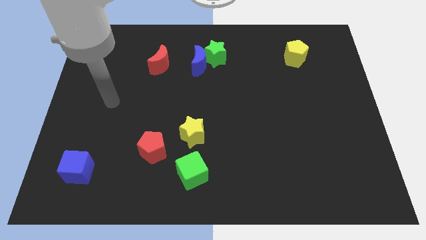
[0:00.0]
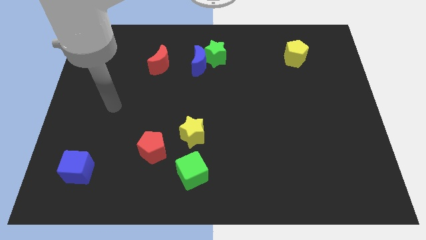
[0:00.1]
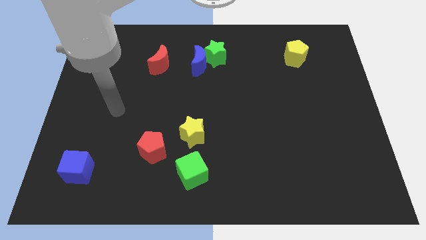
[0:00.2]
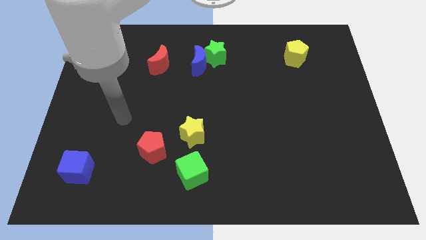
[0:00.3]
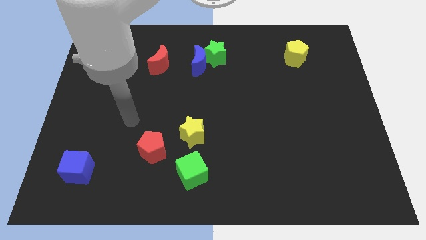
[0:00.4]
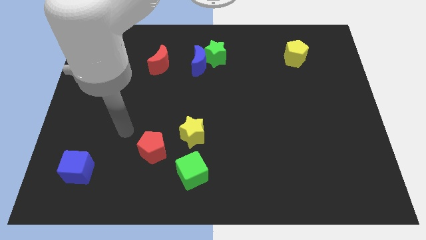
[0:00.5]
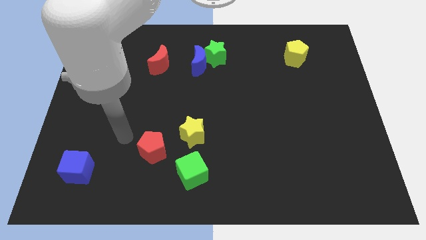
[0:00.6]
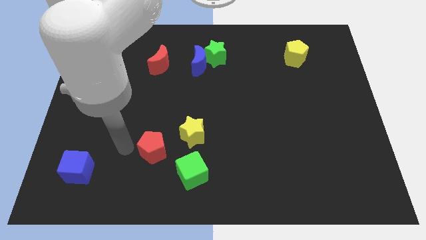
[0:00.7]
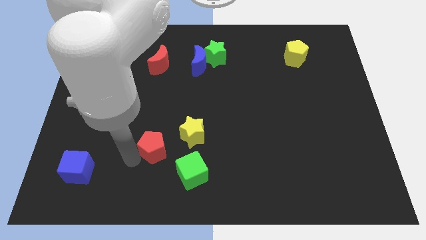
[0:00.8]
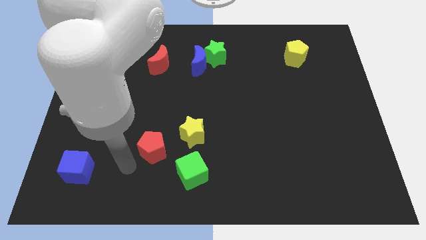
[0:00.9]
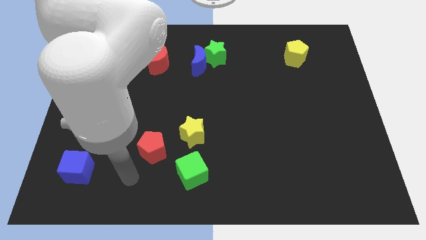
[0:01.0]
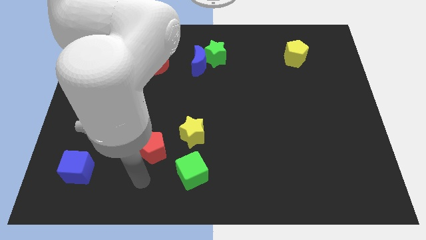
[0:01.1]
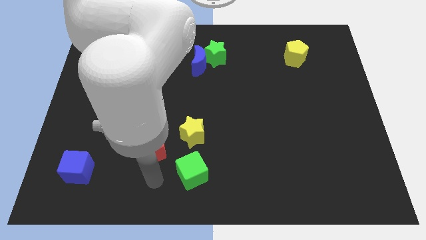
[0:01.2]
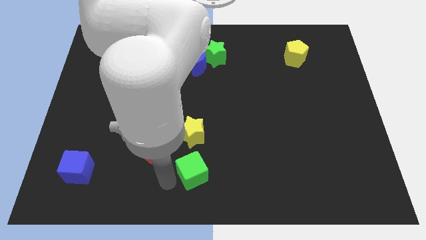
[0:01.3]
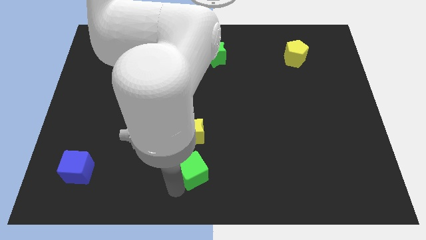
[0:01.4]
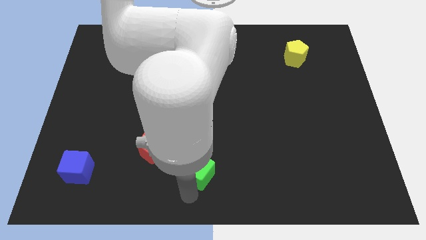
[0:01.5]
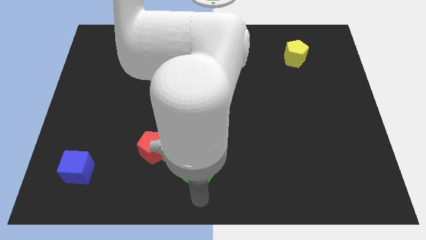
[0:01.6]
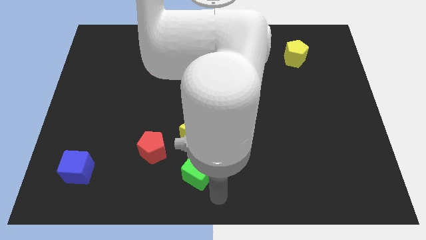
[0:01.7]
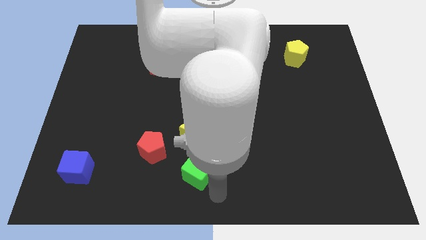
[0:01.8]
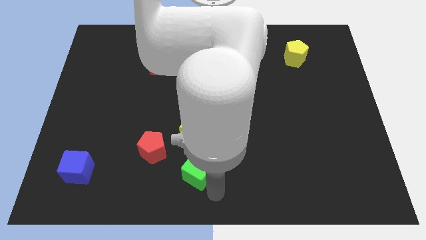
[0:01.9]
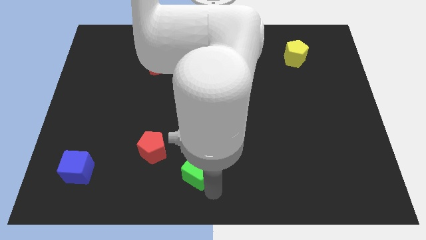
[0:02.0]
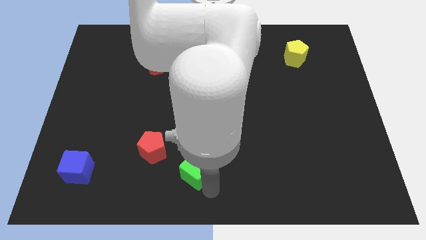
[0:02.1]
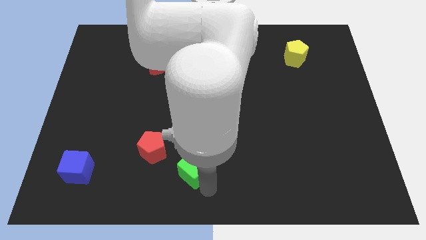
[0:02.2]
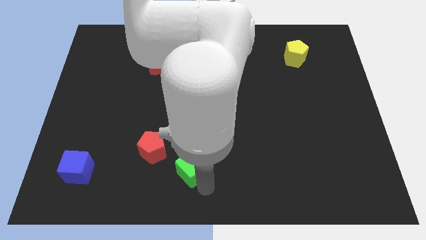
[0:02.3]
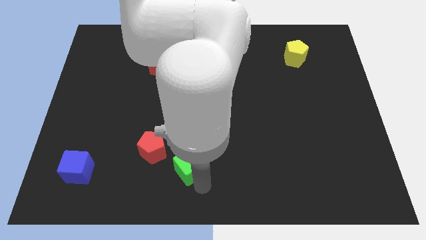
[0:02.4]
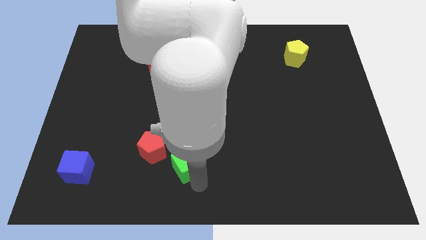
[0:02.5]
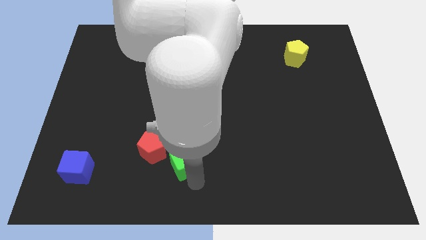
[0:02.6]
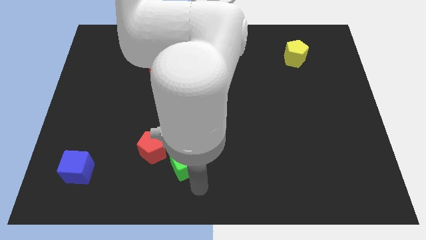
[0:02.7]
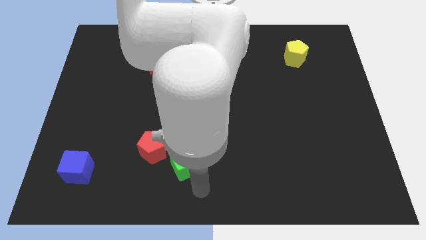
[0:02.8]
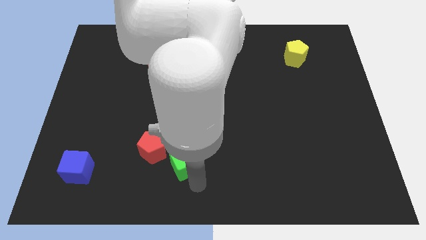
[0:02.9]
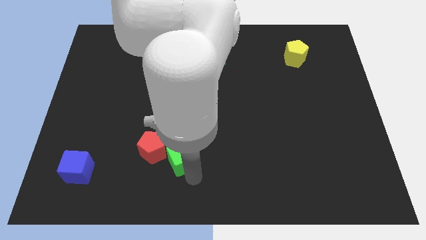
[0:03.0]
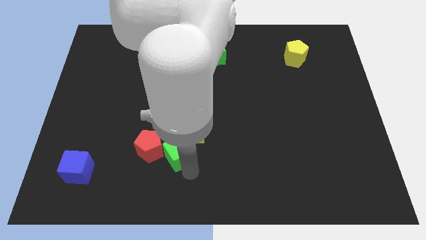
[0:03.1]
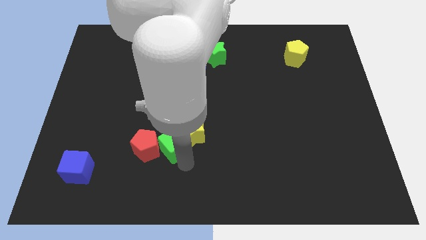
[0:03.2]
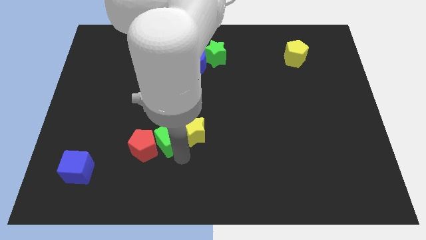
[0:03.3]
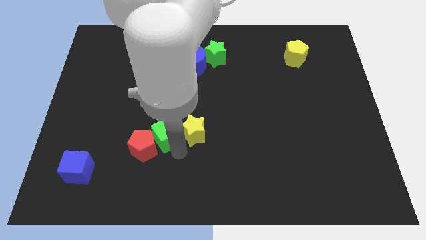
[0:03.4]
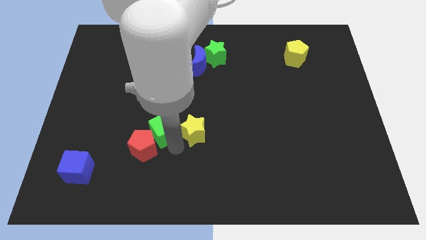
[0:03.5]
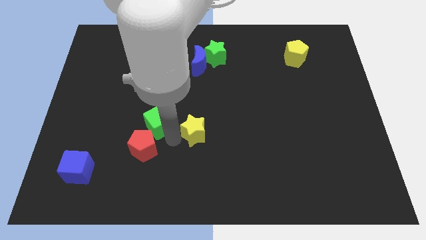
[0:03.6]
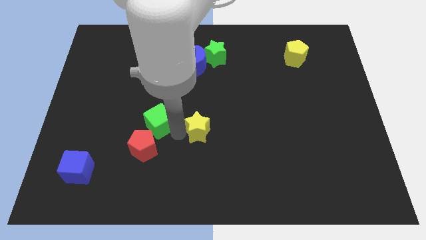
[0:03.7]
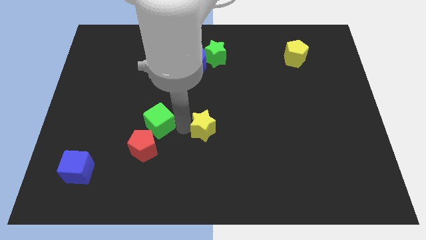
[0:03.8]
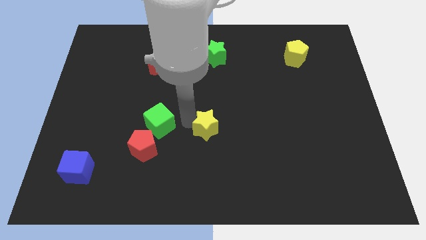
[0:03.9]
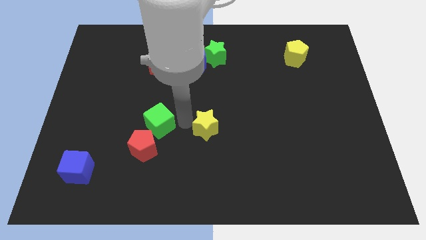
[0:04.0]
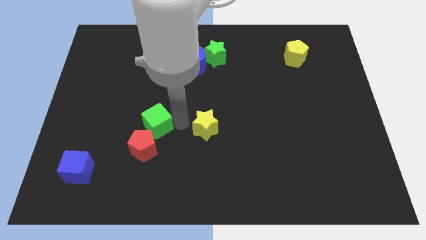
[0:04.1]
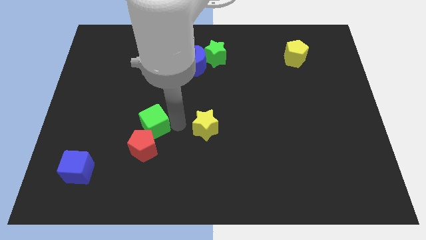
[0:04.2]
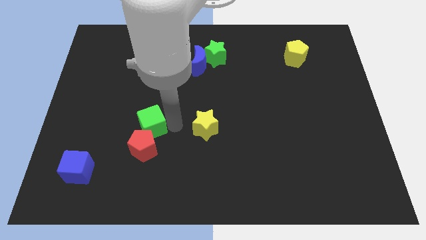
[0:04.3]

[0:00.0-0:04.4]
slide the green cube to the top left side of the red pentagon

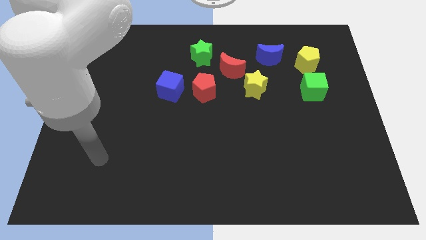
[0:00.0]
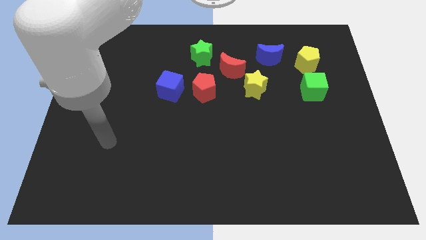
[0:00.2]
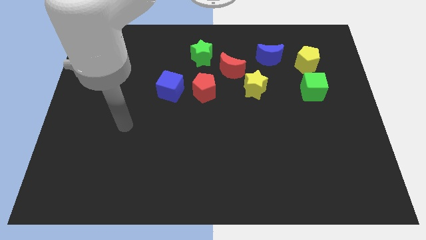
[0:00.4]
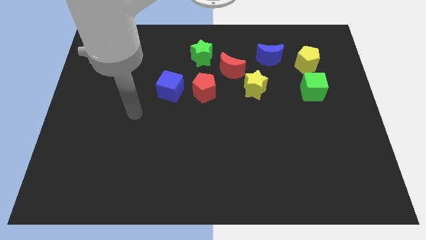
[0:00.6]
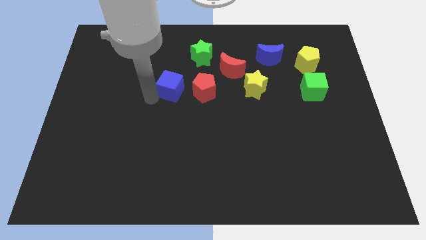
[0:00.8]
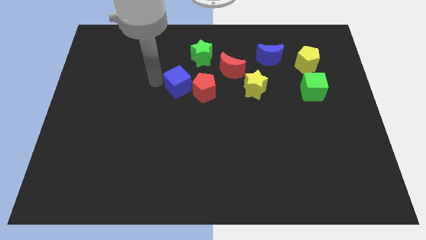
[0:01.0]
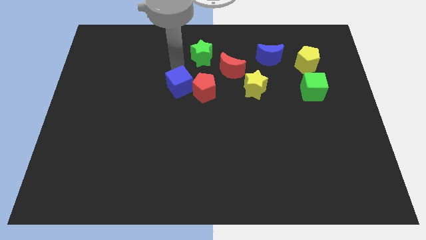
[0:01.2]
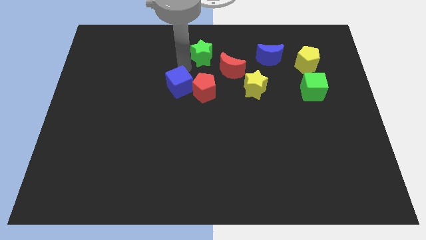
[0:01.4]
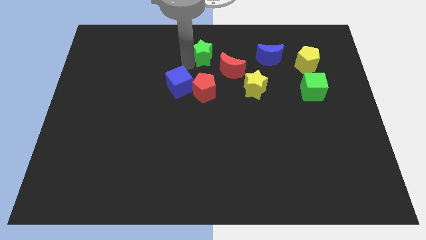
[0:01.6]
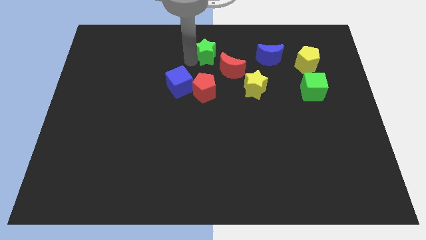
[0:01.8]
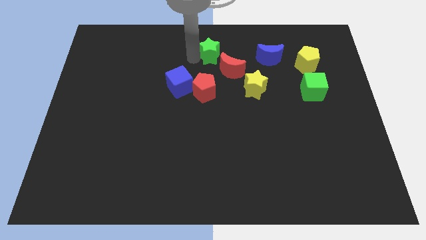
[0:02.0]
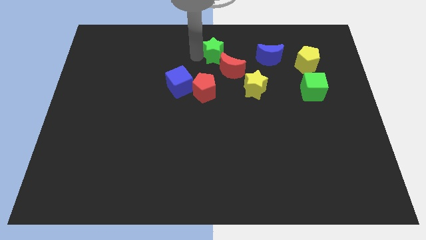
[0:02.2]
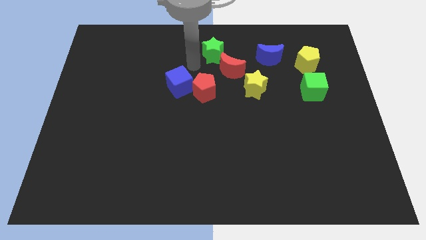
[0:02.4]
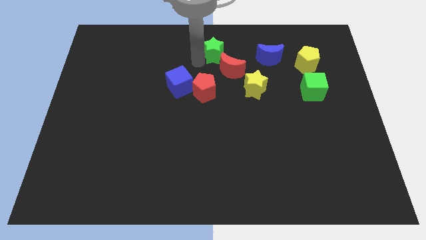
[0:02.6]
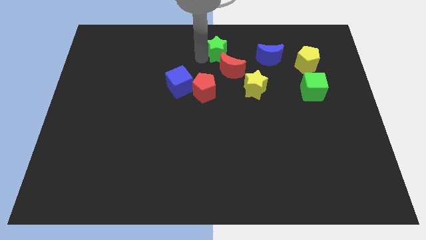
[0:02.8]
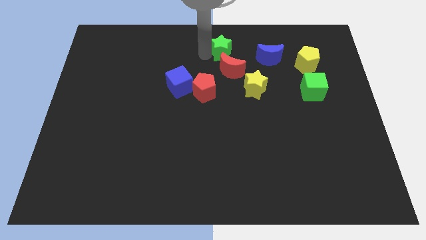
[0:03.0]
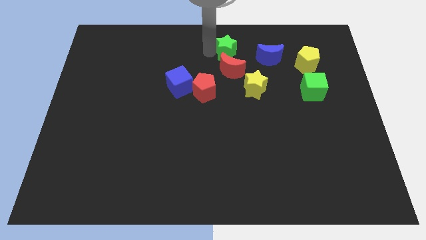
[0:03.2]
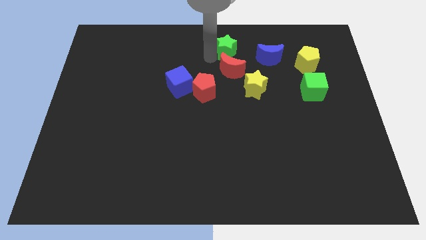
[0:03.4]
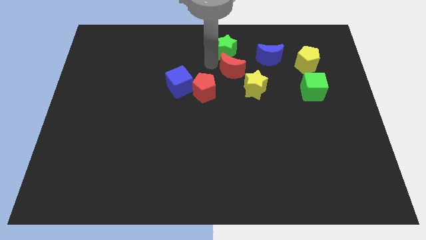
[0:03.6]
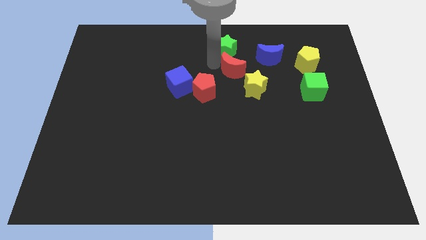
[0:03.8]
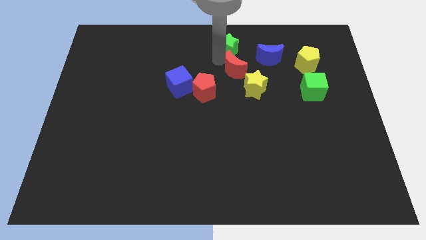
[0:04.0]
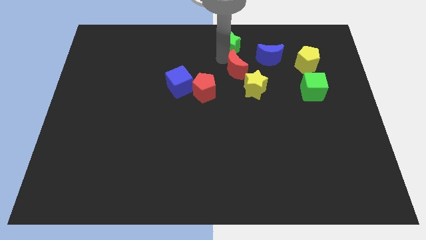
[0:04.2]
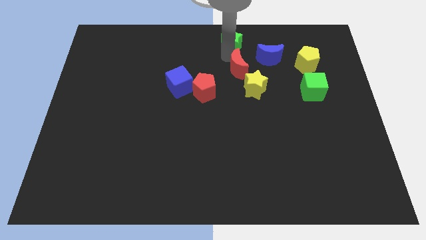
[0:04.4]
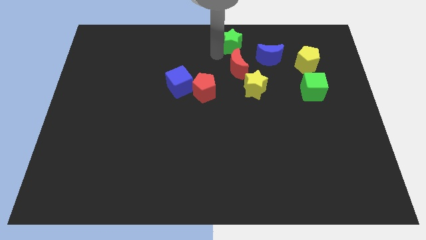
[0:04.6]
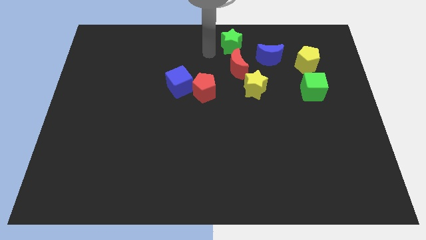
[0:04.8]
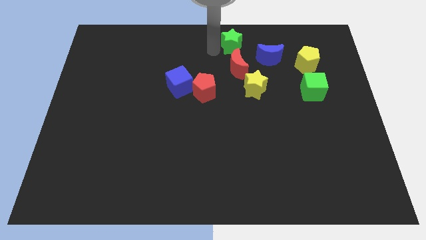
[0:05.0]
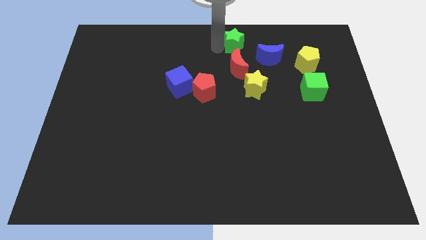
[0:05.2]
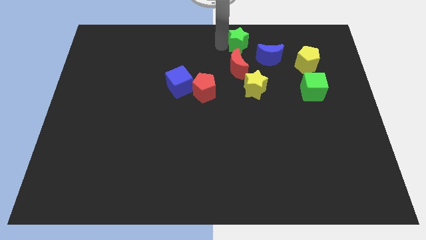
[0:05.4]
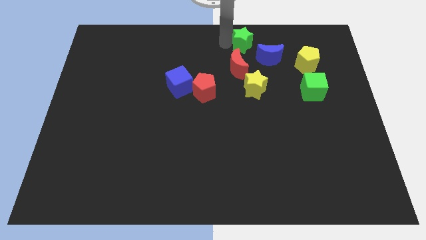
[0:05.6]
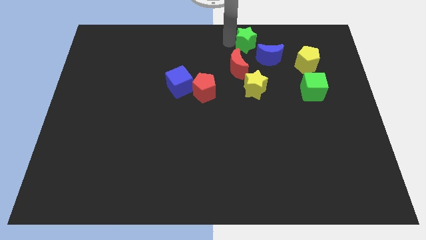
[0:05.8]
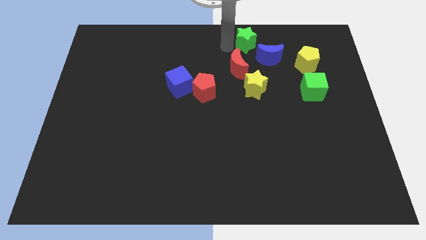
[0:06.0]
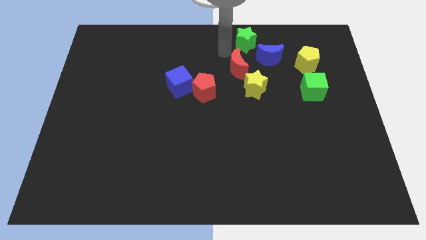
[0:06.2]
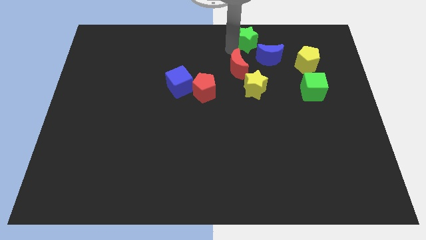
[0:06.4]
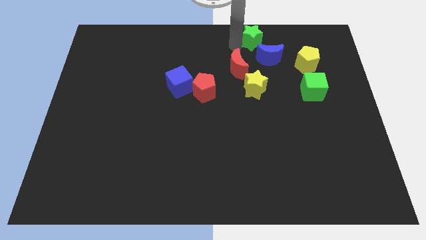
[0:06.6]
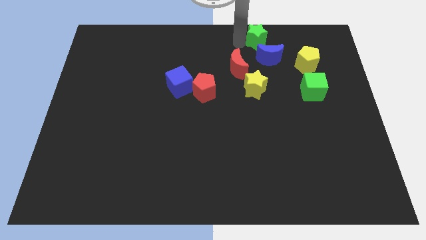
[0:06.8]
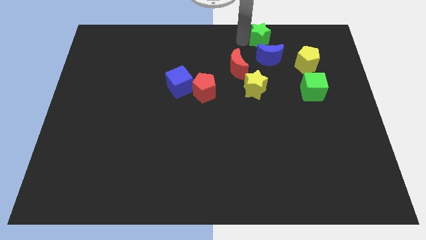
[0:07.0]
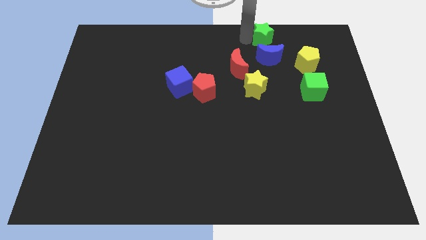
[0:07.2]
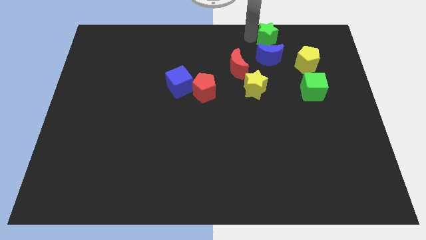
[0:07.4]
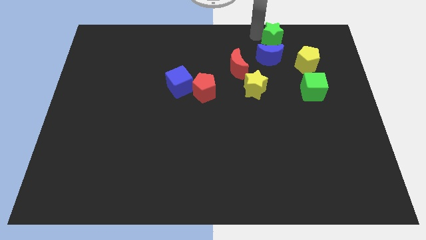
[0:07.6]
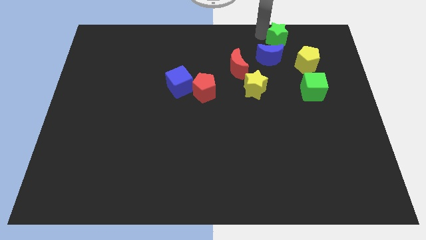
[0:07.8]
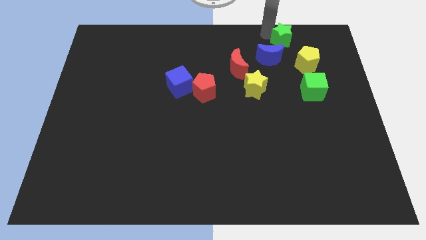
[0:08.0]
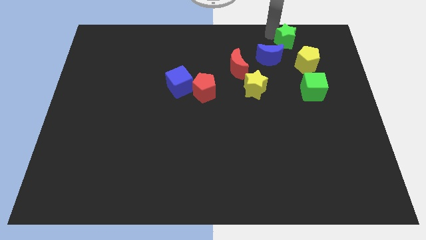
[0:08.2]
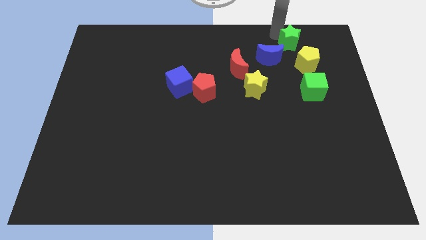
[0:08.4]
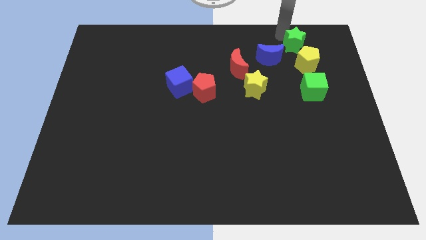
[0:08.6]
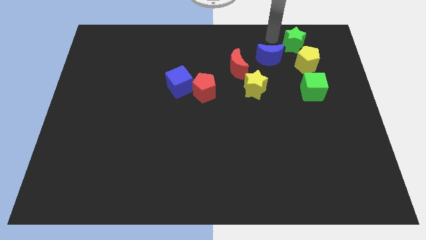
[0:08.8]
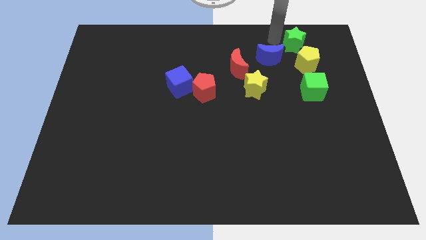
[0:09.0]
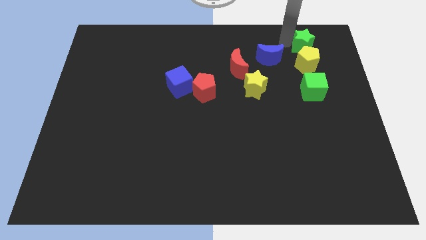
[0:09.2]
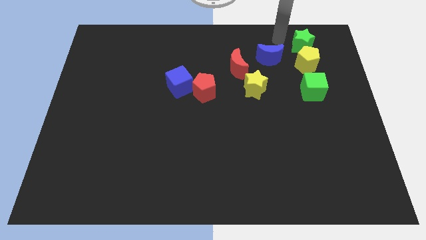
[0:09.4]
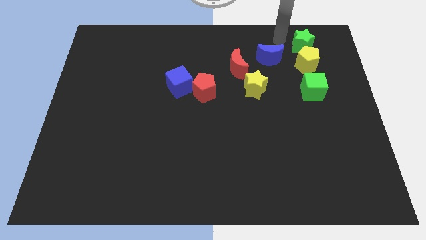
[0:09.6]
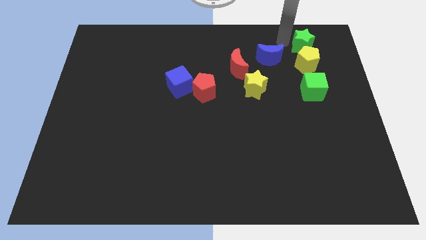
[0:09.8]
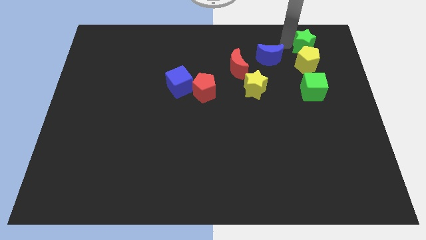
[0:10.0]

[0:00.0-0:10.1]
move the green star to the right side of the blue moon
